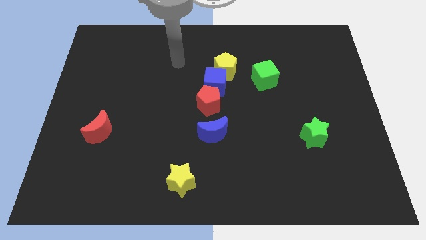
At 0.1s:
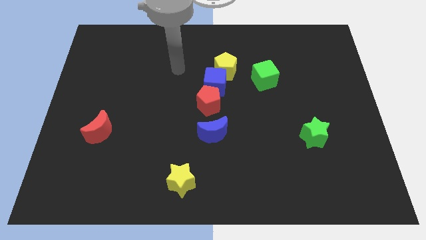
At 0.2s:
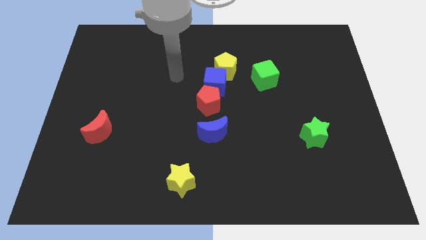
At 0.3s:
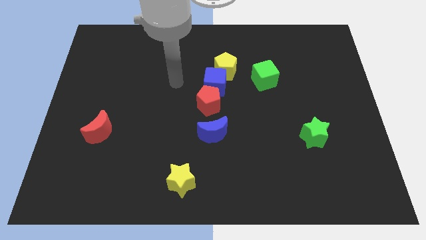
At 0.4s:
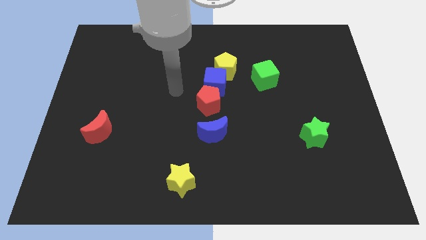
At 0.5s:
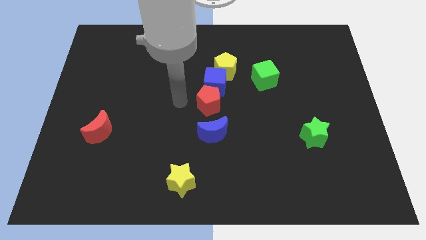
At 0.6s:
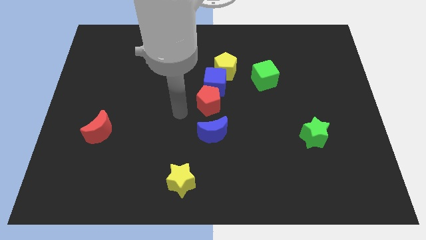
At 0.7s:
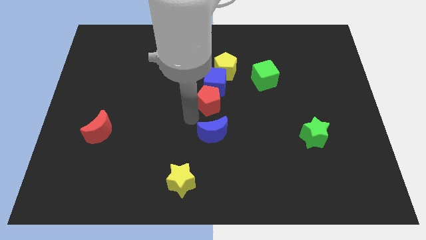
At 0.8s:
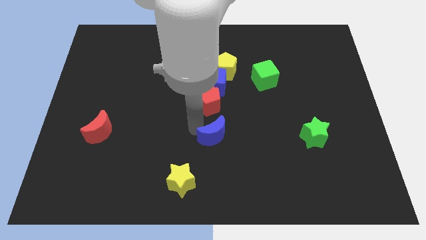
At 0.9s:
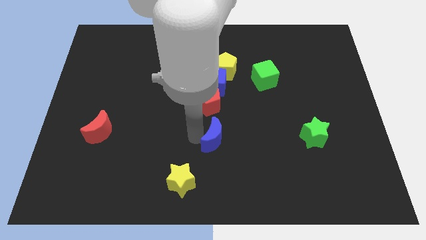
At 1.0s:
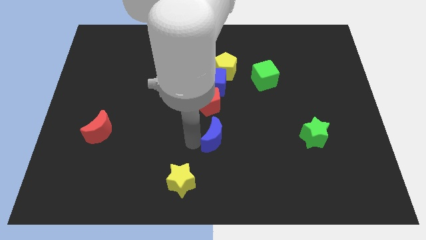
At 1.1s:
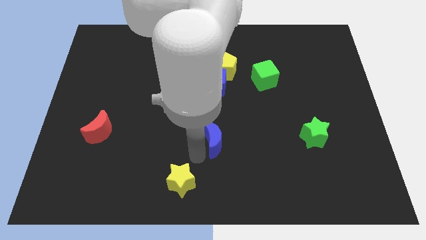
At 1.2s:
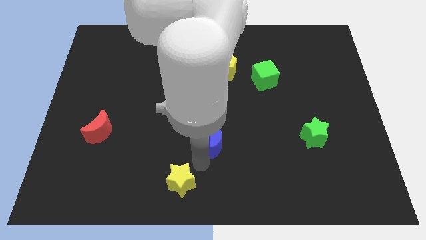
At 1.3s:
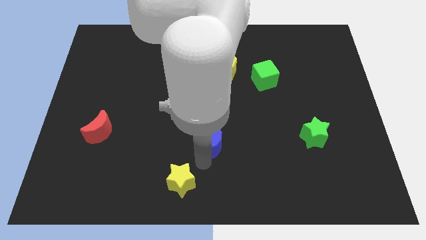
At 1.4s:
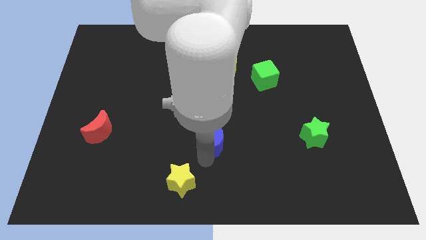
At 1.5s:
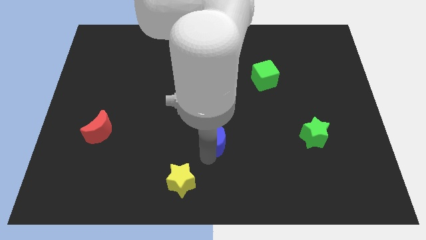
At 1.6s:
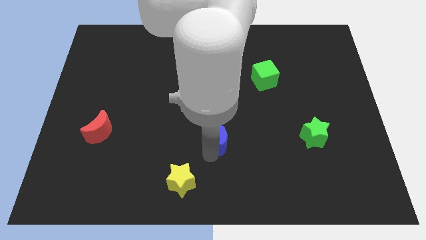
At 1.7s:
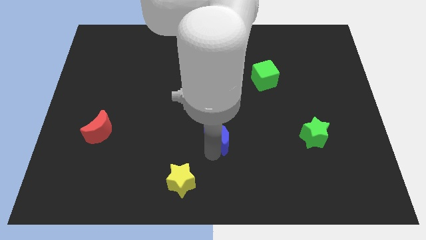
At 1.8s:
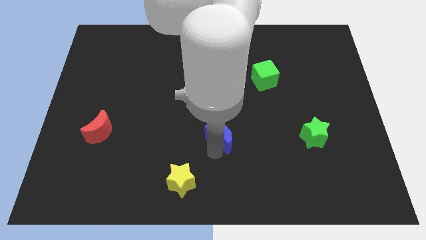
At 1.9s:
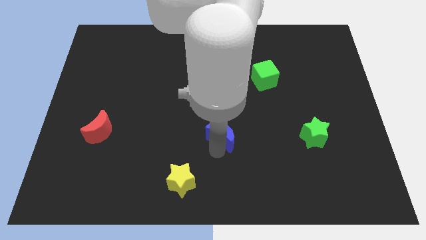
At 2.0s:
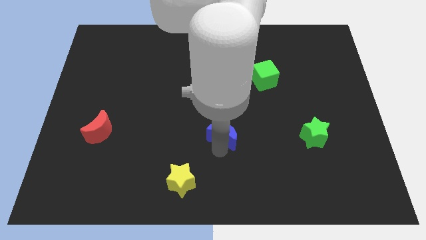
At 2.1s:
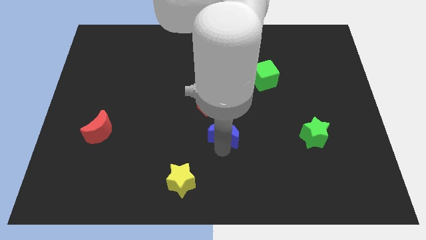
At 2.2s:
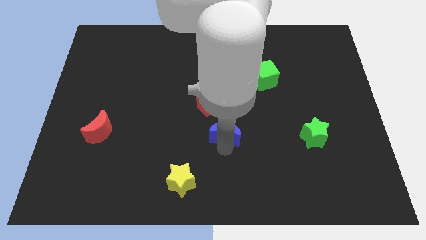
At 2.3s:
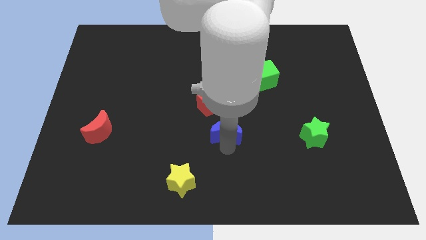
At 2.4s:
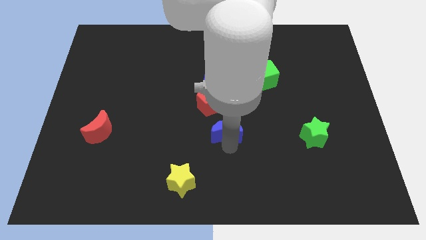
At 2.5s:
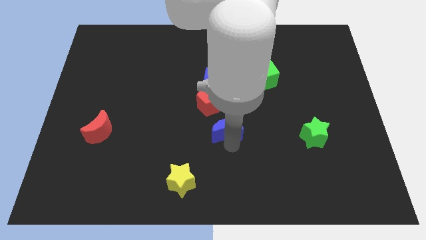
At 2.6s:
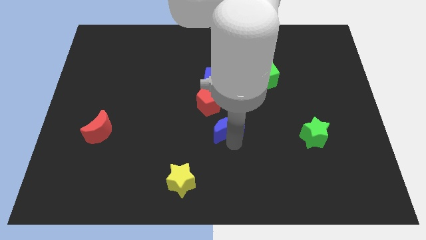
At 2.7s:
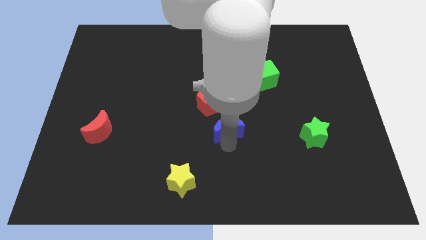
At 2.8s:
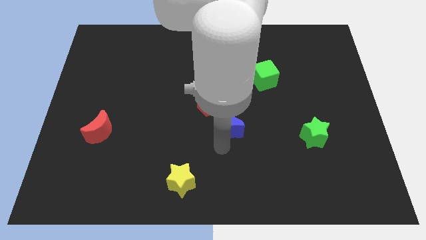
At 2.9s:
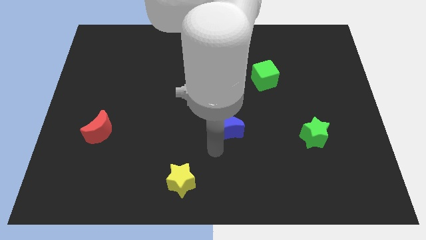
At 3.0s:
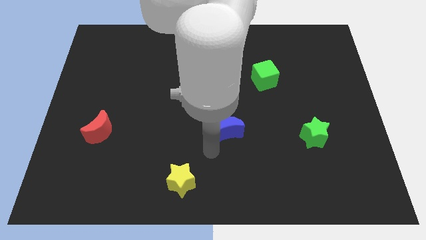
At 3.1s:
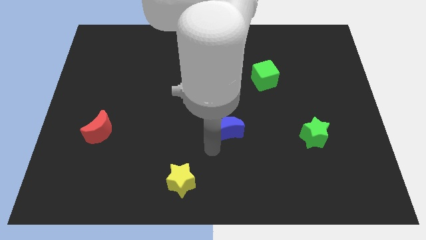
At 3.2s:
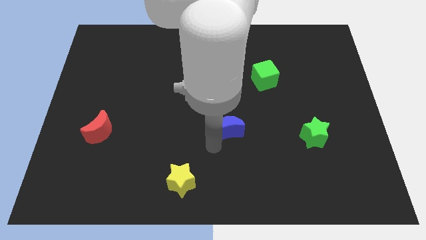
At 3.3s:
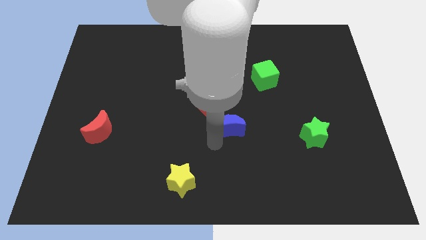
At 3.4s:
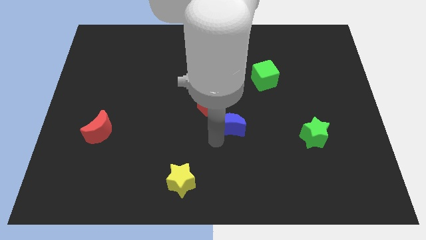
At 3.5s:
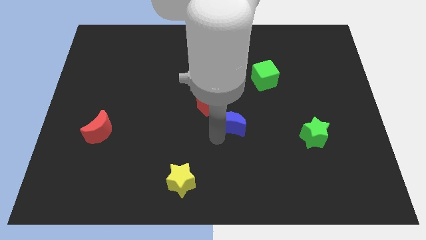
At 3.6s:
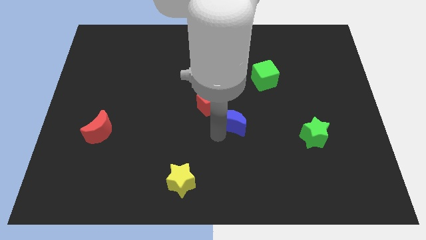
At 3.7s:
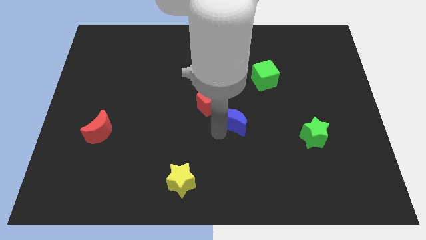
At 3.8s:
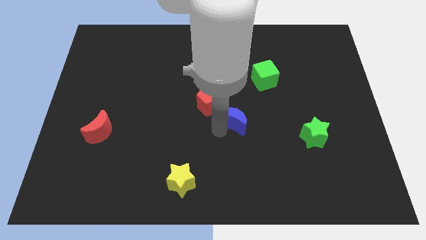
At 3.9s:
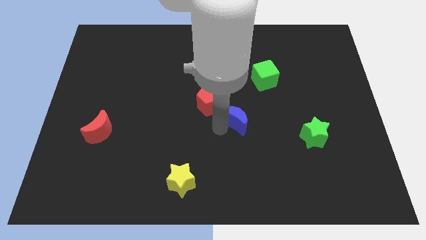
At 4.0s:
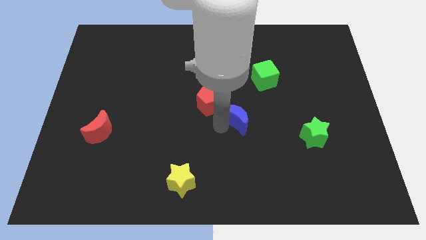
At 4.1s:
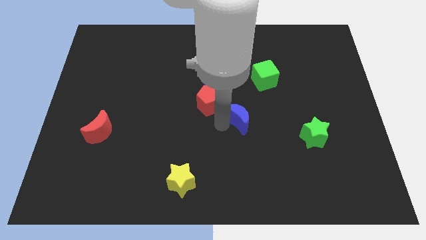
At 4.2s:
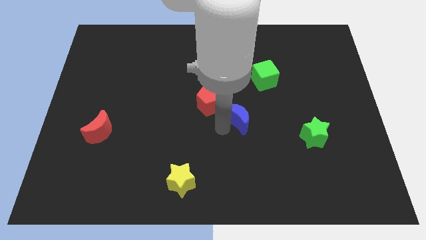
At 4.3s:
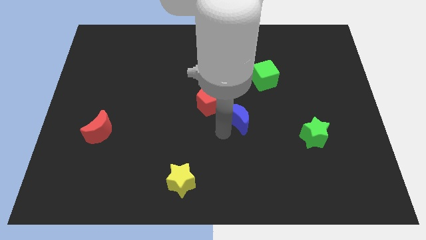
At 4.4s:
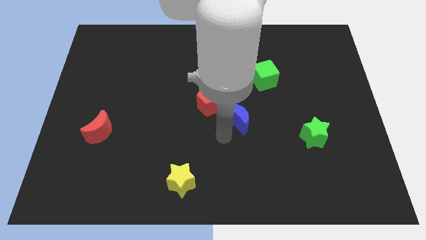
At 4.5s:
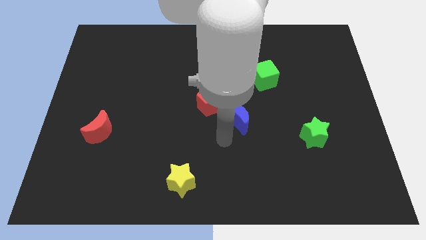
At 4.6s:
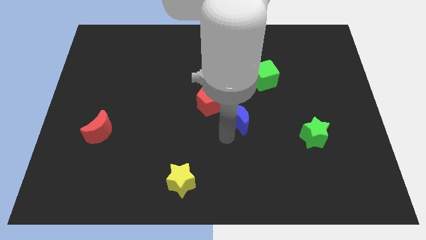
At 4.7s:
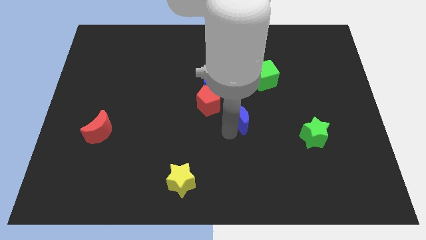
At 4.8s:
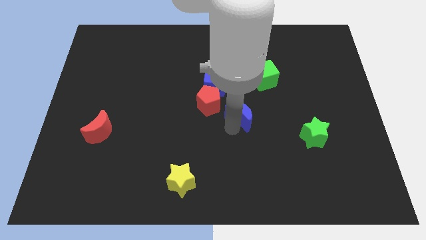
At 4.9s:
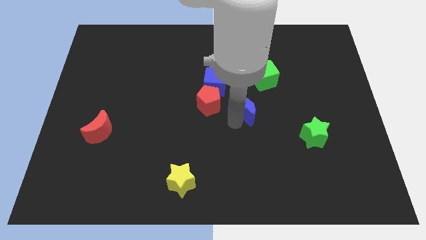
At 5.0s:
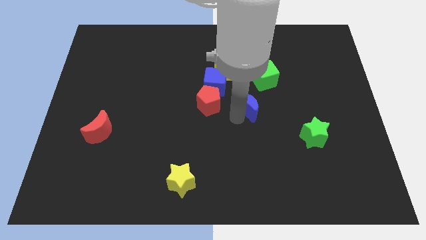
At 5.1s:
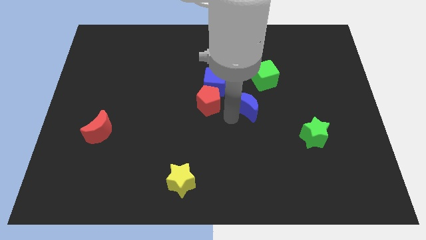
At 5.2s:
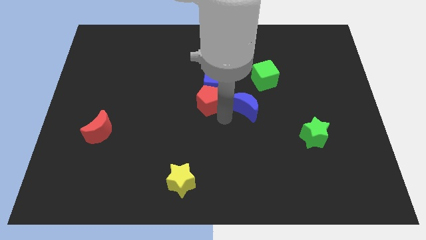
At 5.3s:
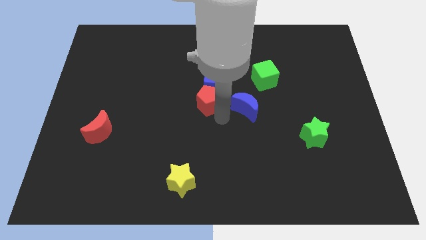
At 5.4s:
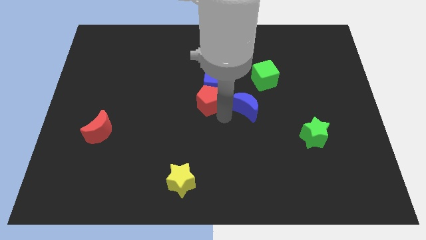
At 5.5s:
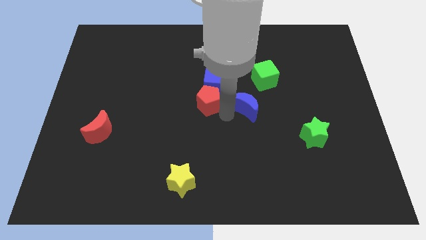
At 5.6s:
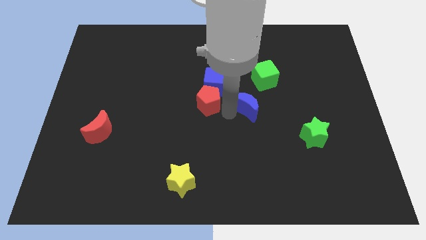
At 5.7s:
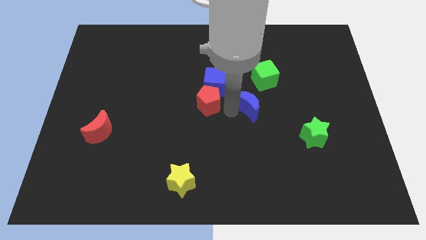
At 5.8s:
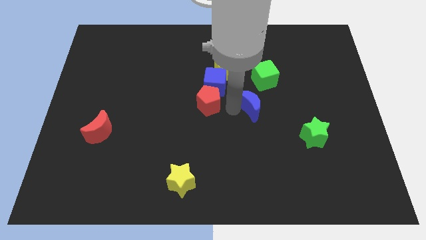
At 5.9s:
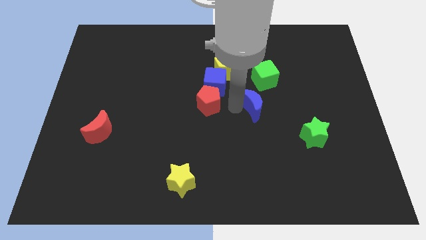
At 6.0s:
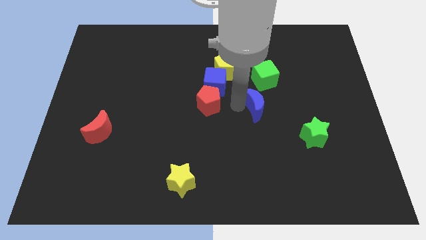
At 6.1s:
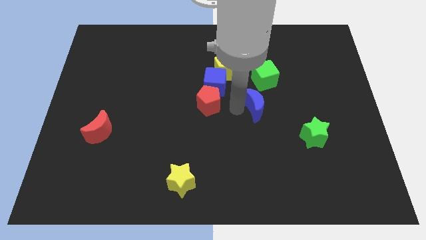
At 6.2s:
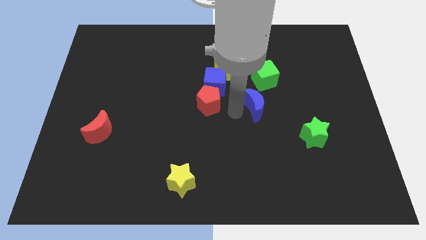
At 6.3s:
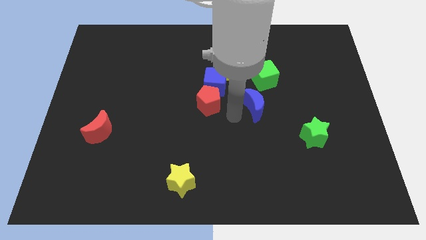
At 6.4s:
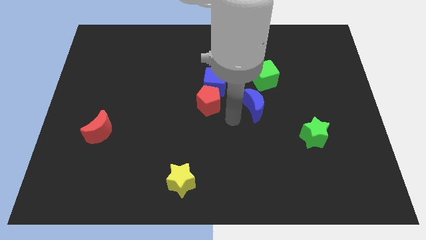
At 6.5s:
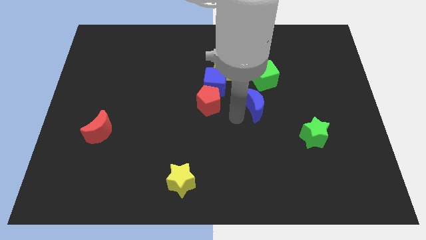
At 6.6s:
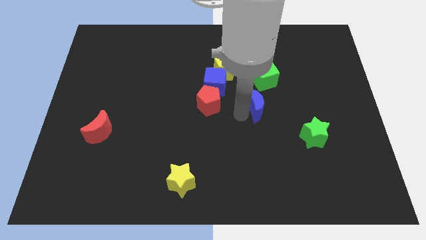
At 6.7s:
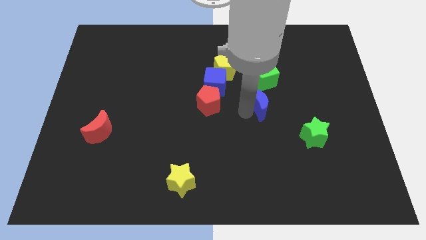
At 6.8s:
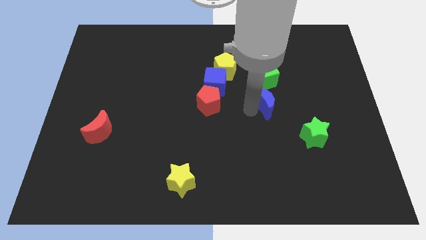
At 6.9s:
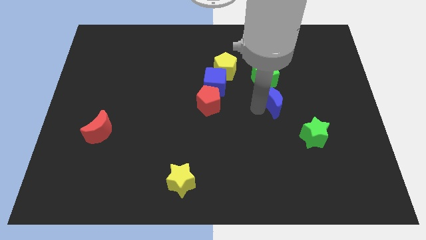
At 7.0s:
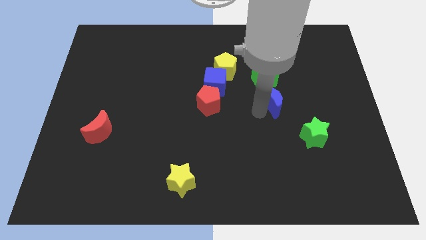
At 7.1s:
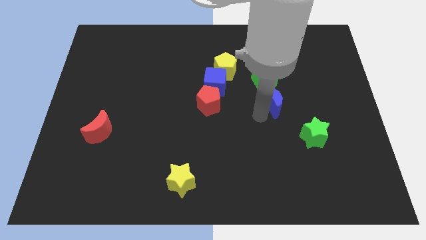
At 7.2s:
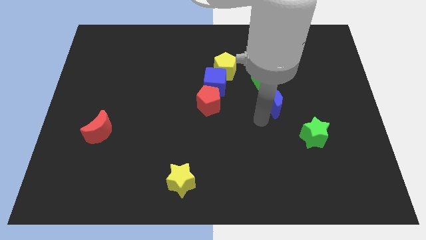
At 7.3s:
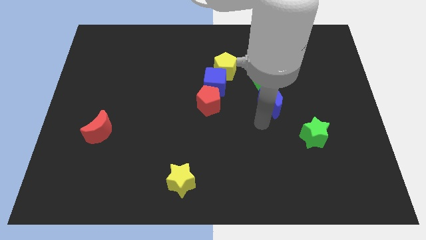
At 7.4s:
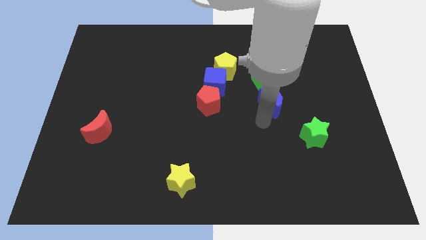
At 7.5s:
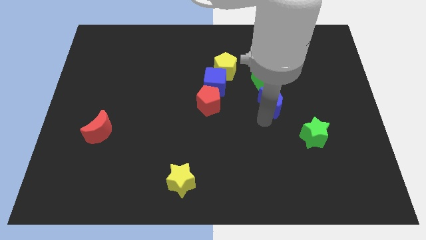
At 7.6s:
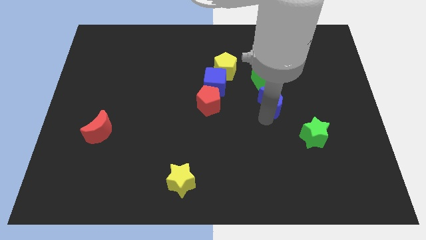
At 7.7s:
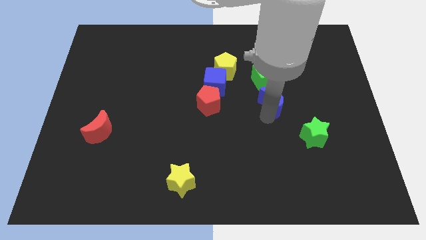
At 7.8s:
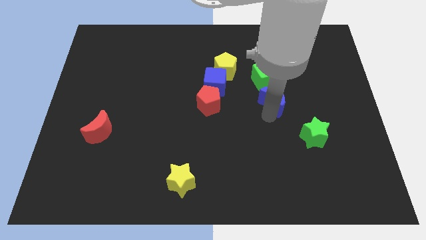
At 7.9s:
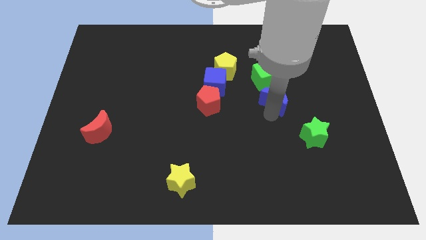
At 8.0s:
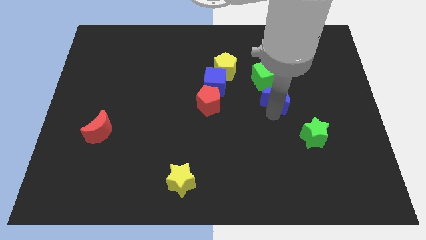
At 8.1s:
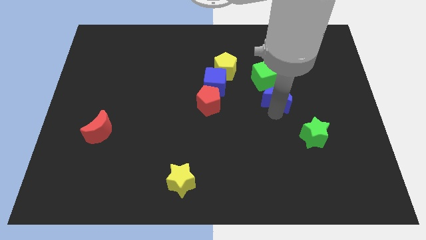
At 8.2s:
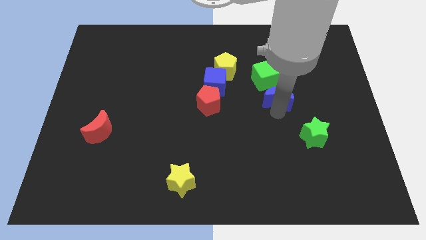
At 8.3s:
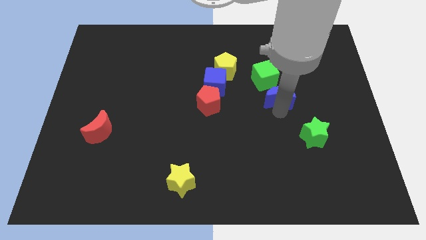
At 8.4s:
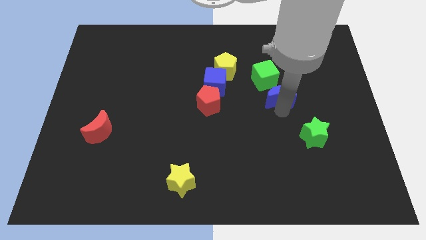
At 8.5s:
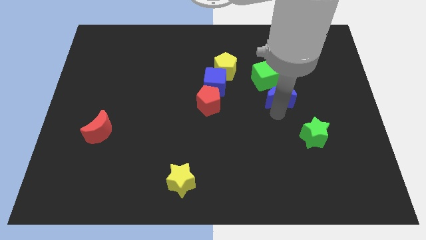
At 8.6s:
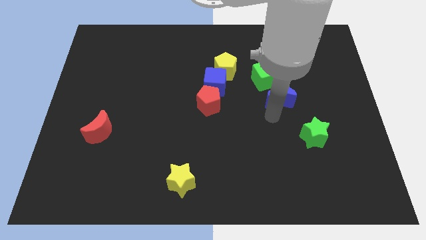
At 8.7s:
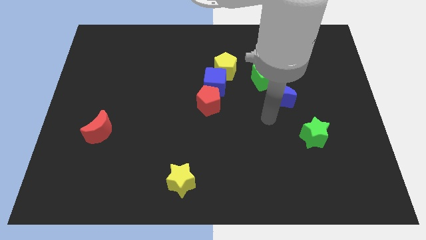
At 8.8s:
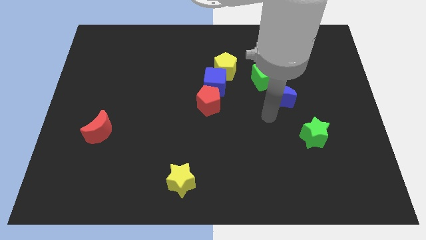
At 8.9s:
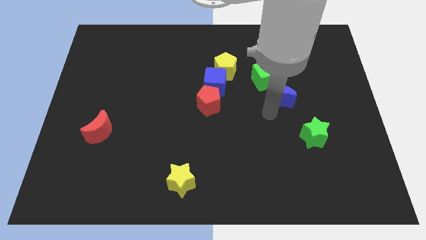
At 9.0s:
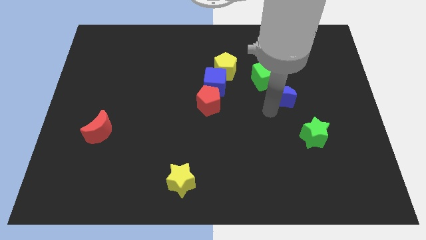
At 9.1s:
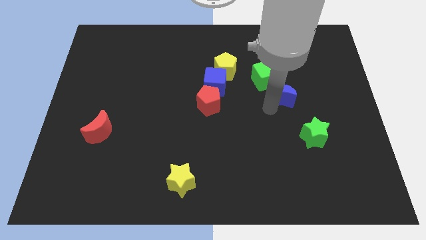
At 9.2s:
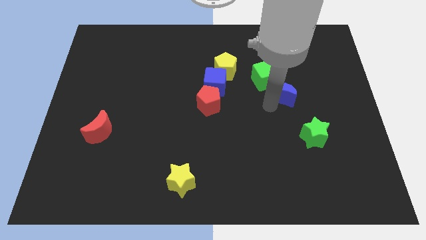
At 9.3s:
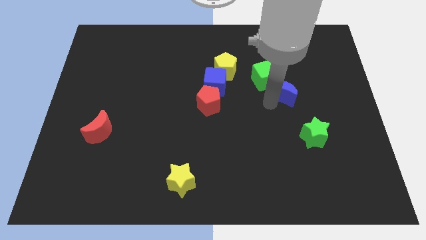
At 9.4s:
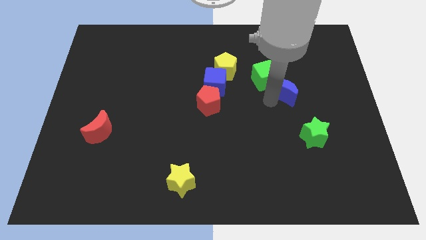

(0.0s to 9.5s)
push the blue moon up and right diagonally
